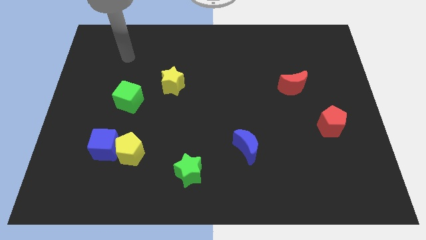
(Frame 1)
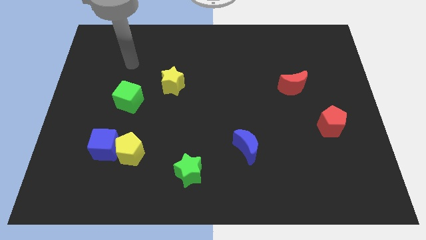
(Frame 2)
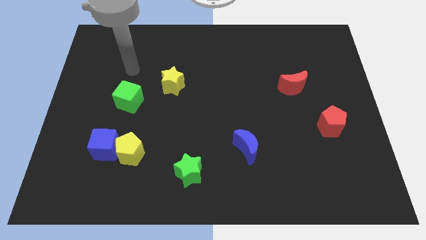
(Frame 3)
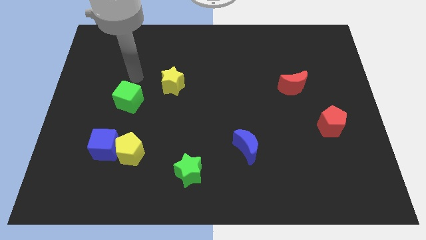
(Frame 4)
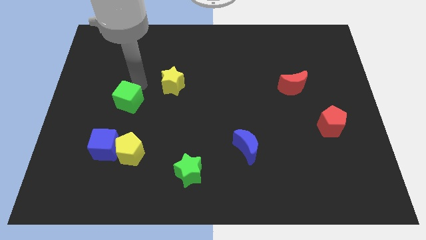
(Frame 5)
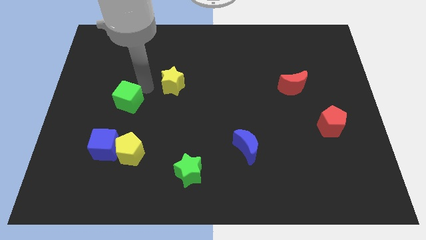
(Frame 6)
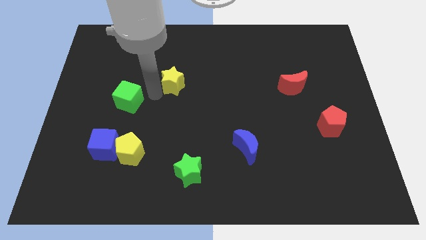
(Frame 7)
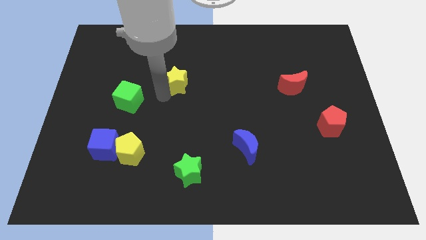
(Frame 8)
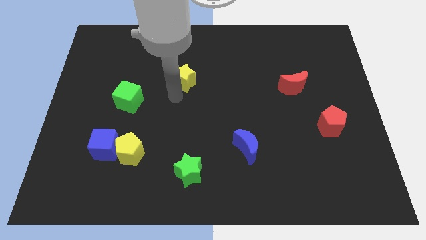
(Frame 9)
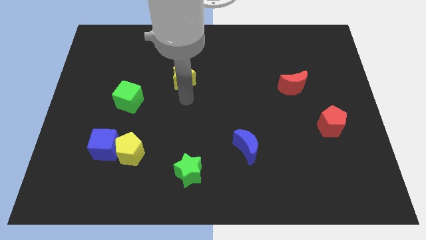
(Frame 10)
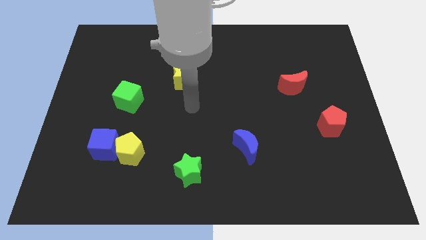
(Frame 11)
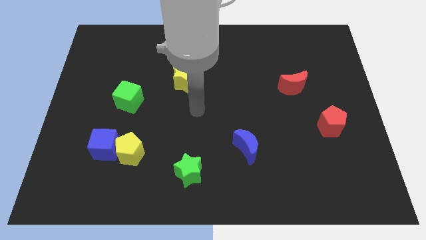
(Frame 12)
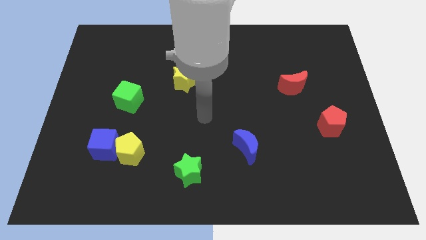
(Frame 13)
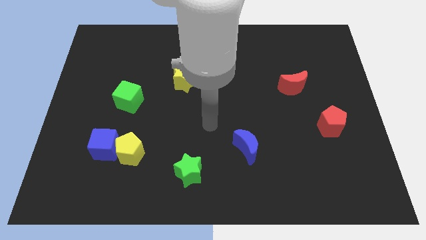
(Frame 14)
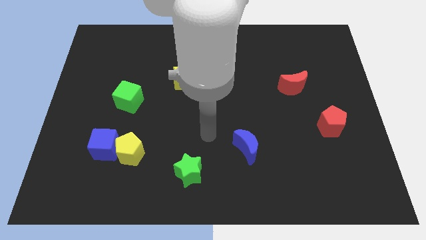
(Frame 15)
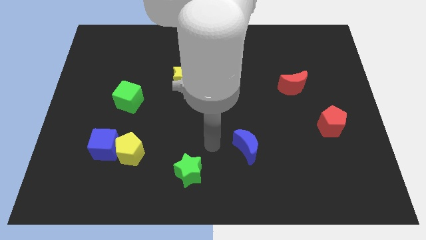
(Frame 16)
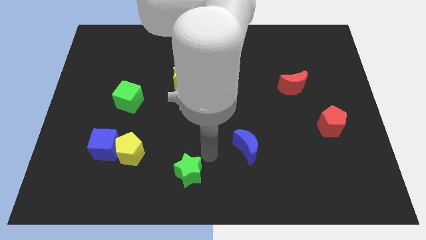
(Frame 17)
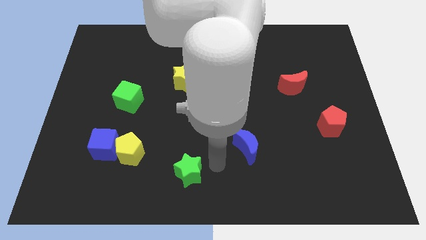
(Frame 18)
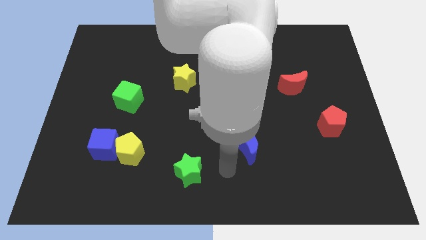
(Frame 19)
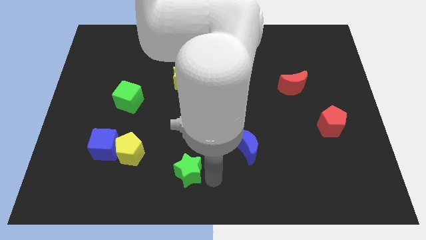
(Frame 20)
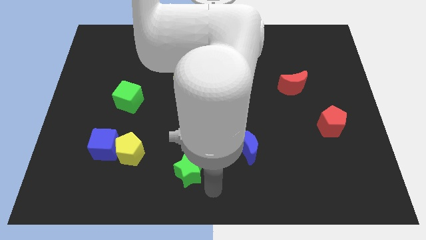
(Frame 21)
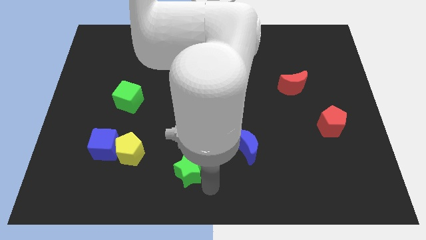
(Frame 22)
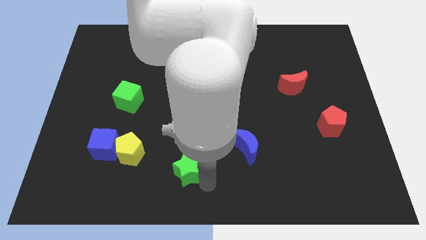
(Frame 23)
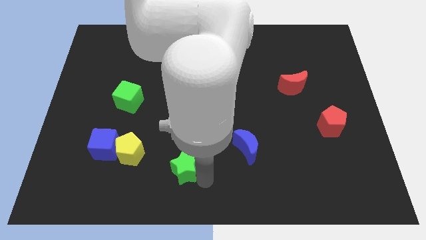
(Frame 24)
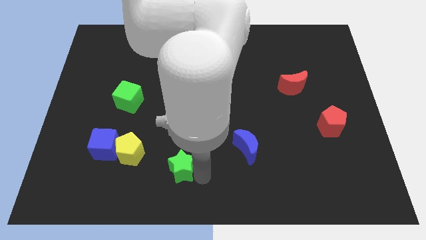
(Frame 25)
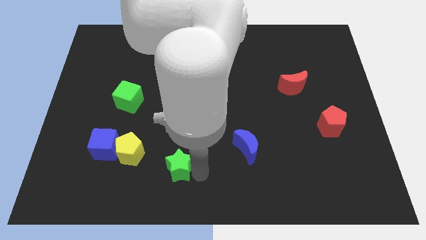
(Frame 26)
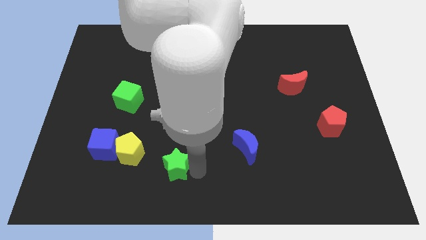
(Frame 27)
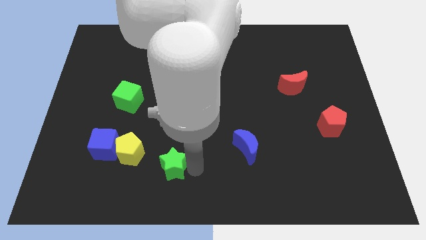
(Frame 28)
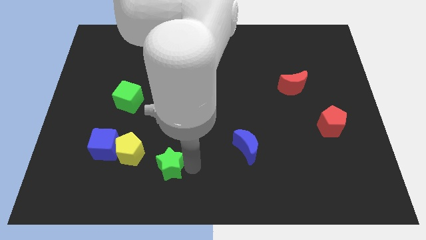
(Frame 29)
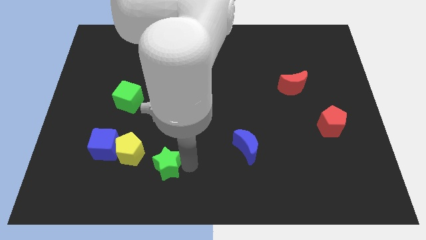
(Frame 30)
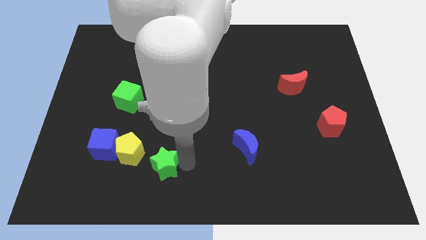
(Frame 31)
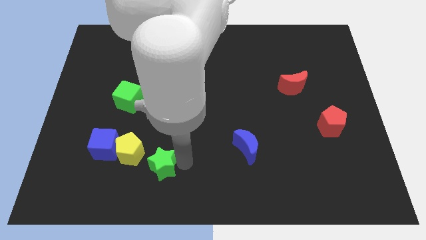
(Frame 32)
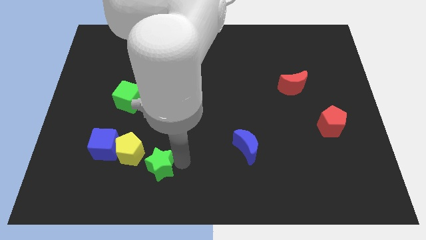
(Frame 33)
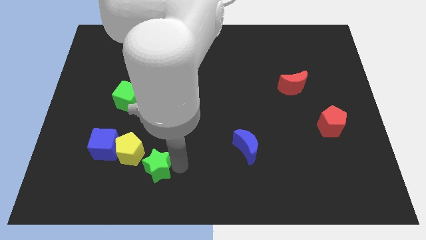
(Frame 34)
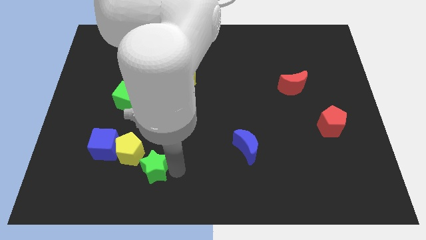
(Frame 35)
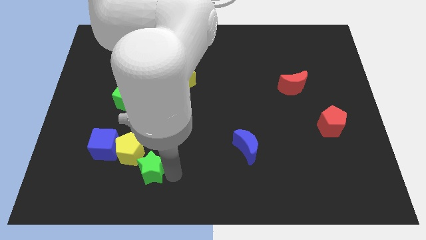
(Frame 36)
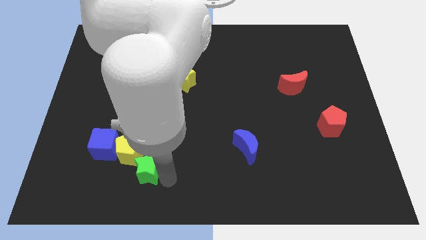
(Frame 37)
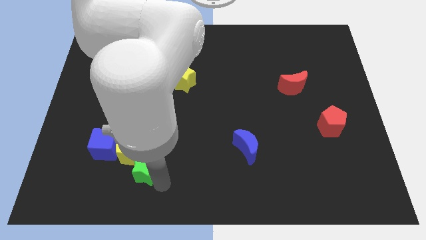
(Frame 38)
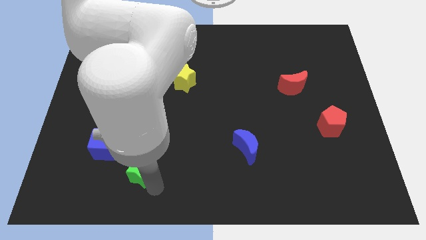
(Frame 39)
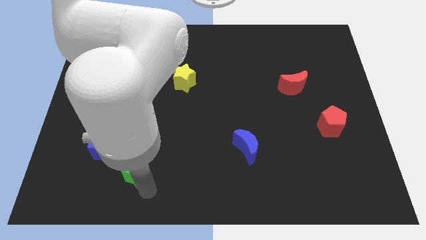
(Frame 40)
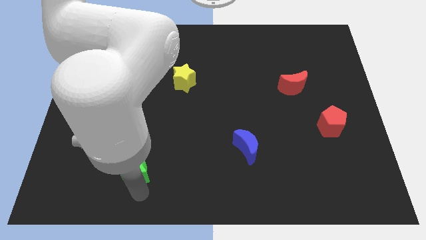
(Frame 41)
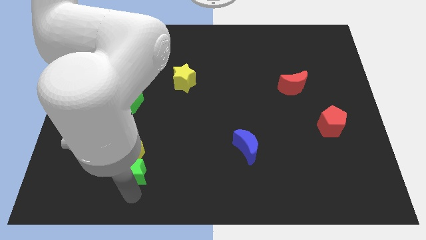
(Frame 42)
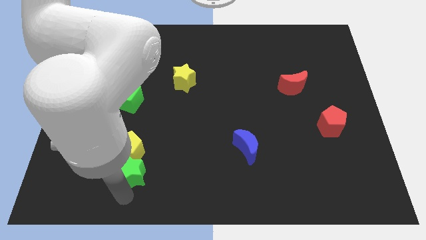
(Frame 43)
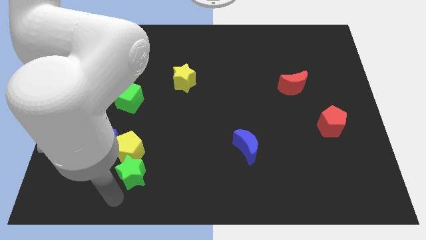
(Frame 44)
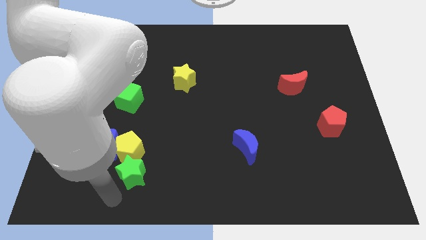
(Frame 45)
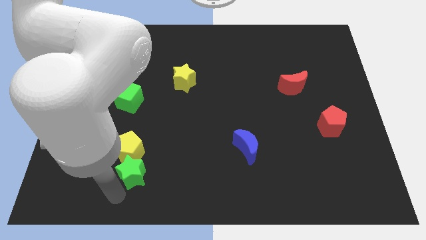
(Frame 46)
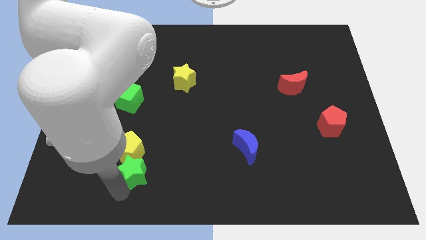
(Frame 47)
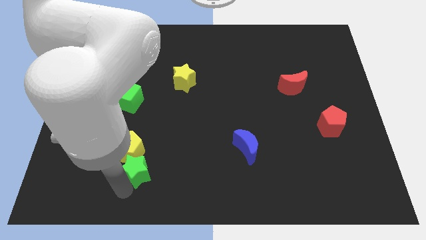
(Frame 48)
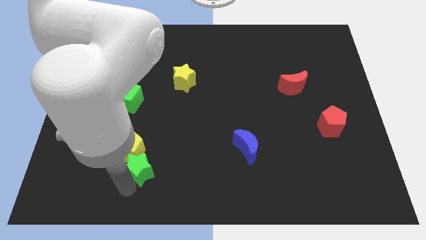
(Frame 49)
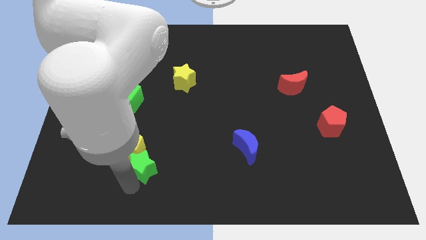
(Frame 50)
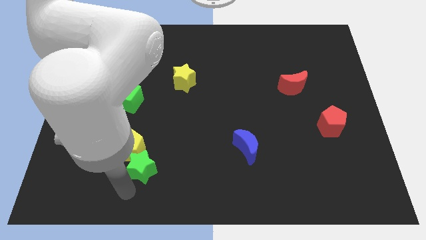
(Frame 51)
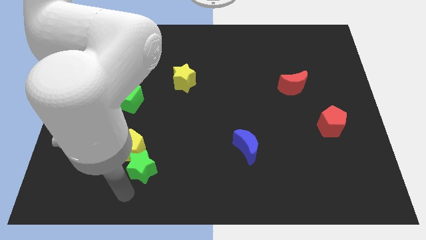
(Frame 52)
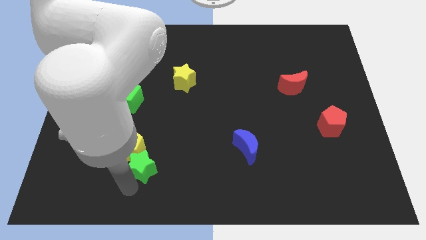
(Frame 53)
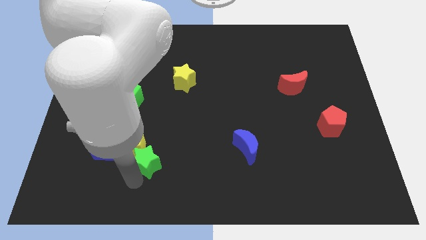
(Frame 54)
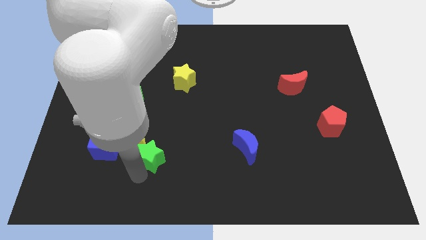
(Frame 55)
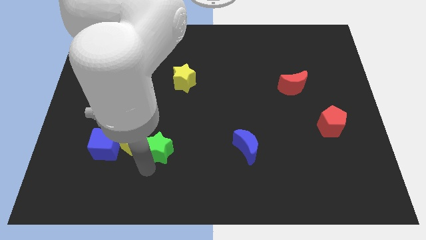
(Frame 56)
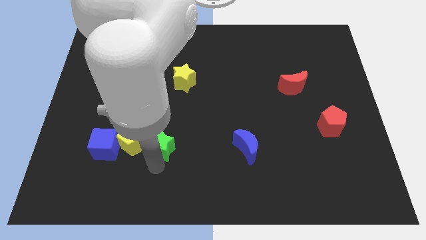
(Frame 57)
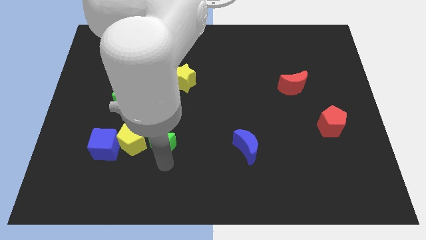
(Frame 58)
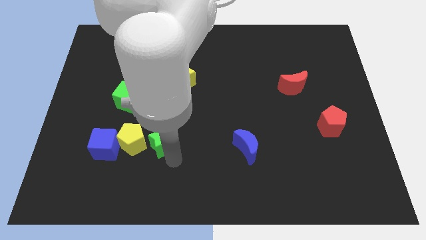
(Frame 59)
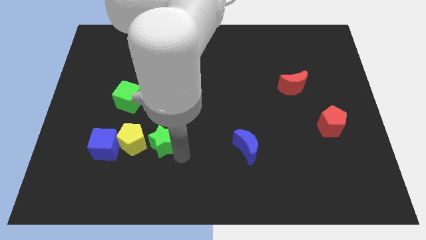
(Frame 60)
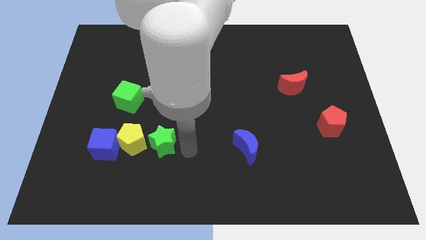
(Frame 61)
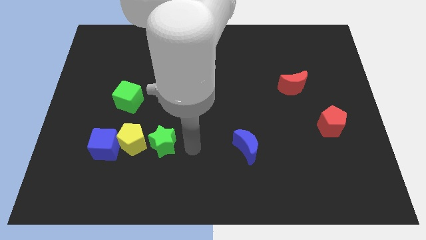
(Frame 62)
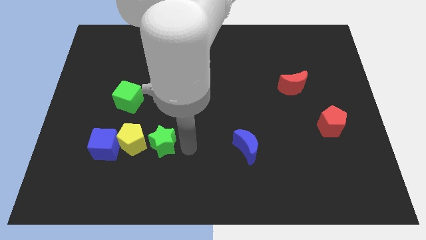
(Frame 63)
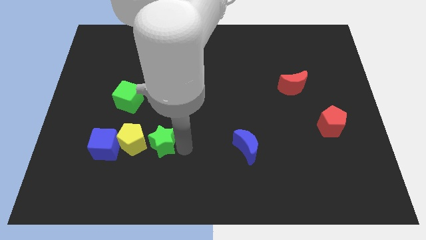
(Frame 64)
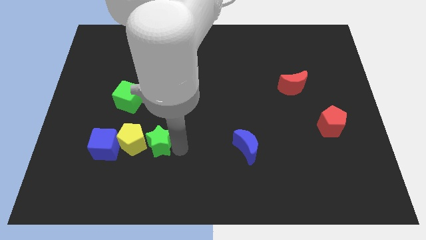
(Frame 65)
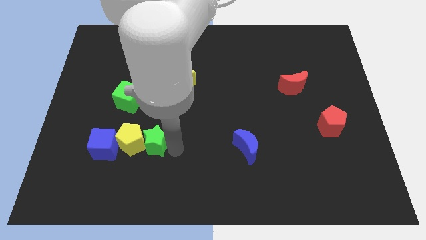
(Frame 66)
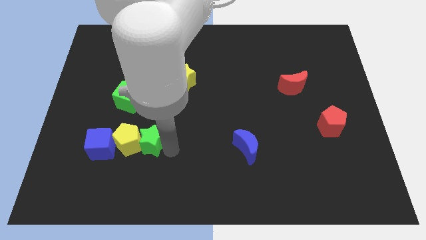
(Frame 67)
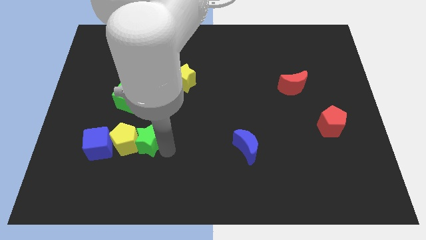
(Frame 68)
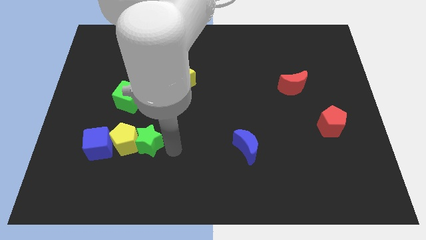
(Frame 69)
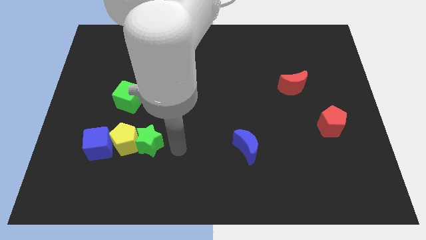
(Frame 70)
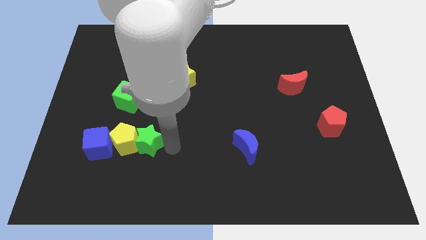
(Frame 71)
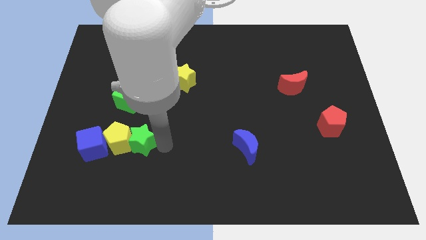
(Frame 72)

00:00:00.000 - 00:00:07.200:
push the green star to the bottom side of the green cube
